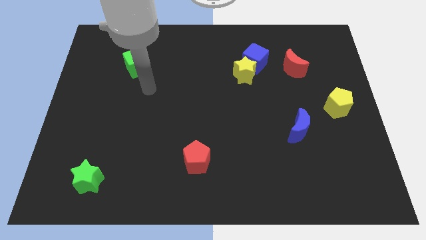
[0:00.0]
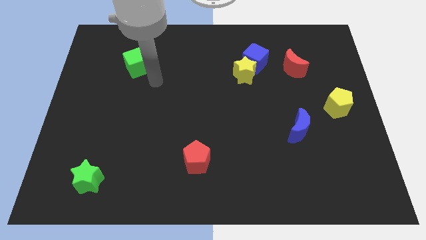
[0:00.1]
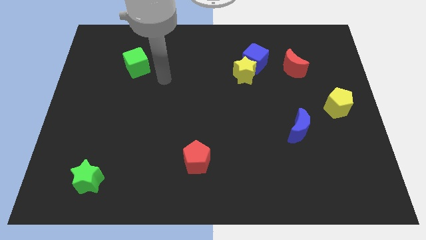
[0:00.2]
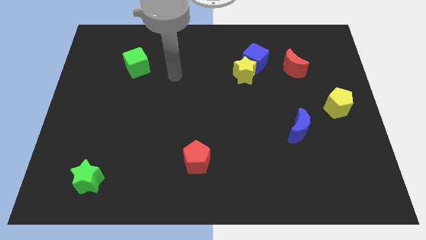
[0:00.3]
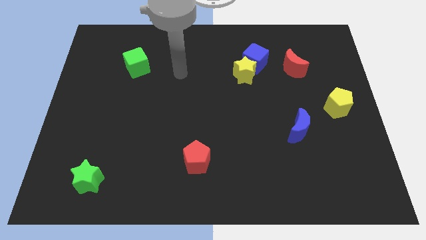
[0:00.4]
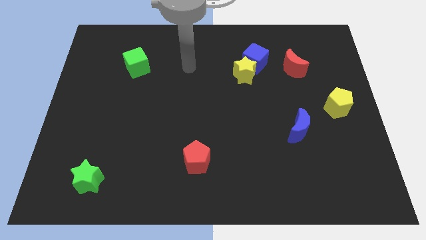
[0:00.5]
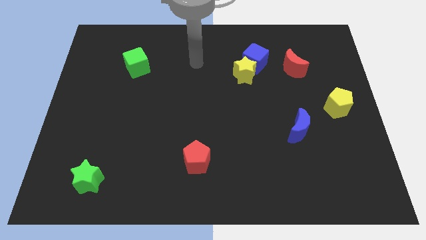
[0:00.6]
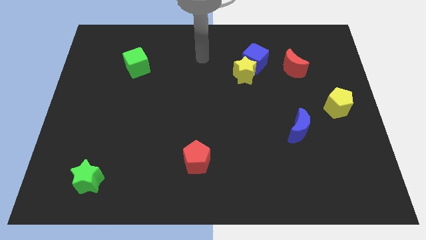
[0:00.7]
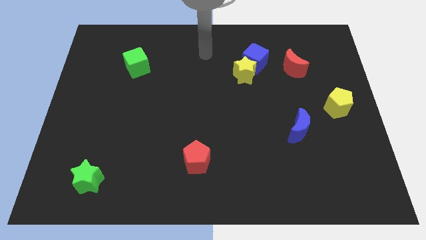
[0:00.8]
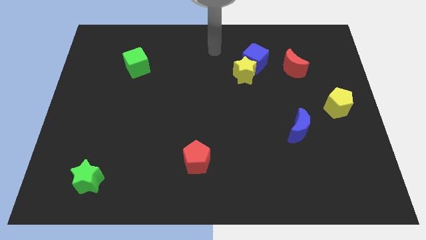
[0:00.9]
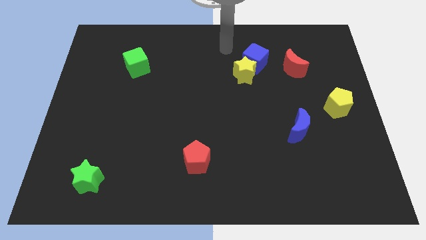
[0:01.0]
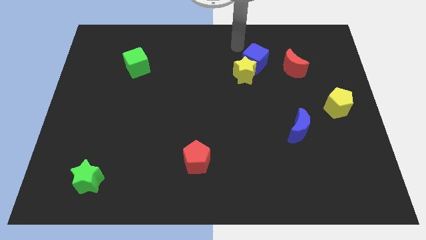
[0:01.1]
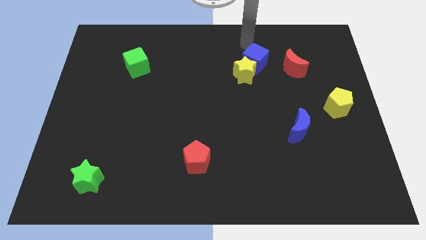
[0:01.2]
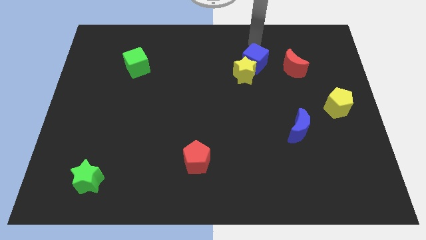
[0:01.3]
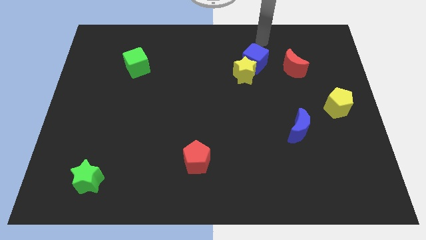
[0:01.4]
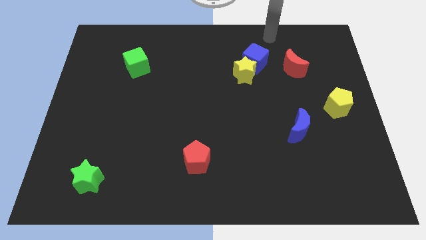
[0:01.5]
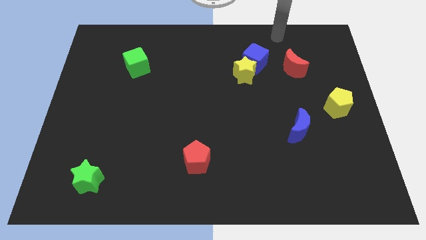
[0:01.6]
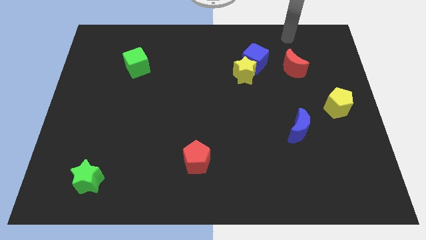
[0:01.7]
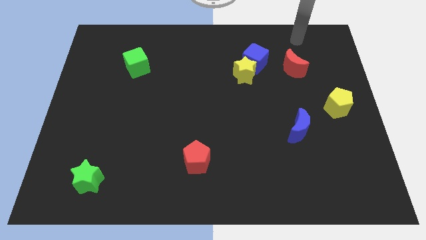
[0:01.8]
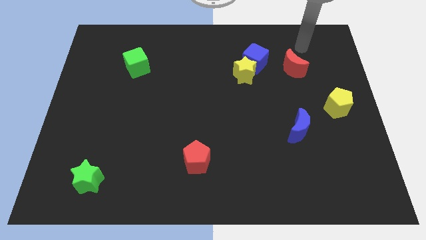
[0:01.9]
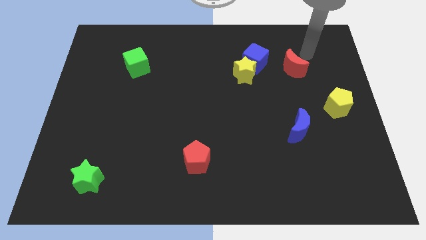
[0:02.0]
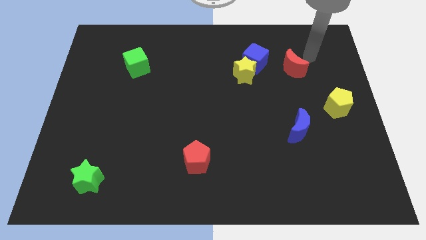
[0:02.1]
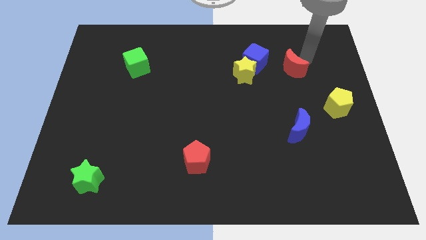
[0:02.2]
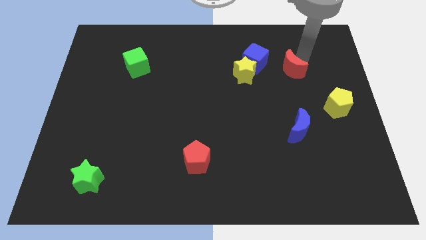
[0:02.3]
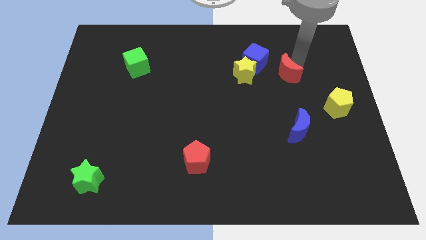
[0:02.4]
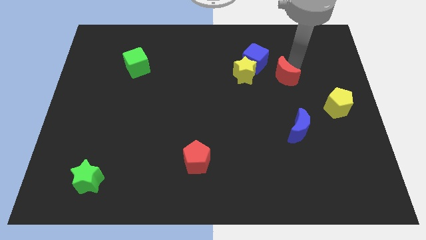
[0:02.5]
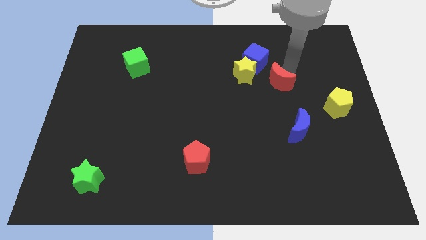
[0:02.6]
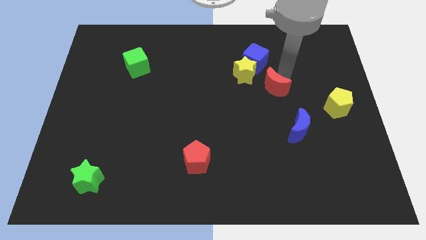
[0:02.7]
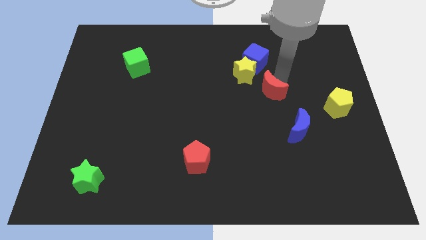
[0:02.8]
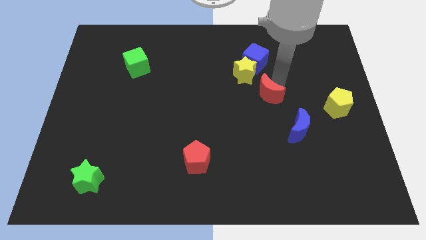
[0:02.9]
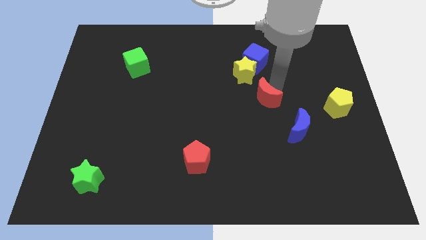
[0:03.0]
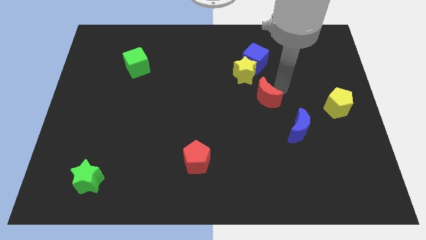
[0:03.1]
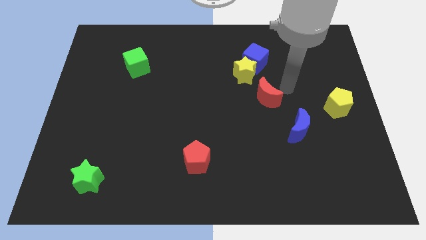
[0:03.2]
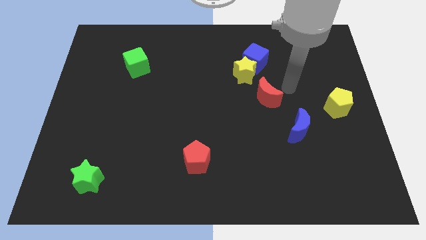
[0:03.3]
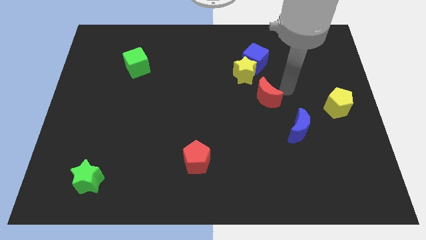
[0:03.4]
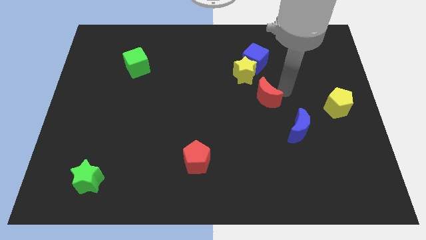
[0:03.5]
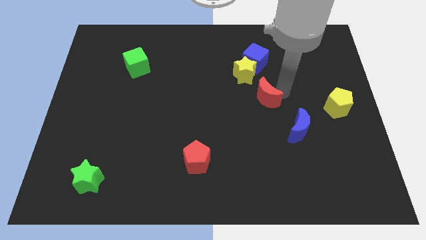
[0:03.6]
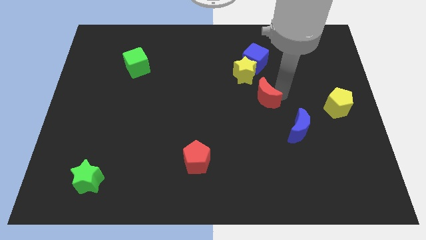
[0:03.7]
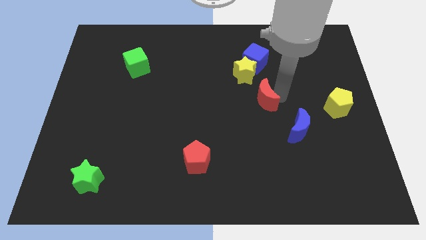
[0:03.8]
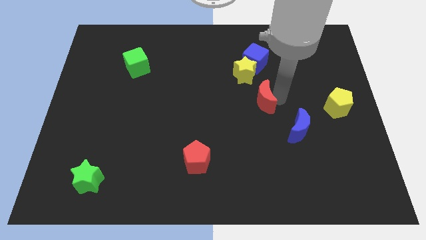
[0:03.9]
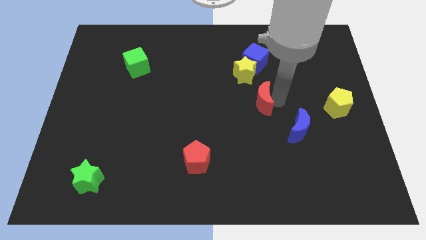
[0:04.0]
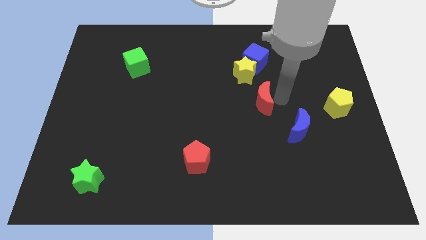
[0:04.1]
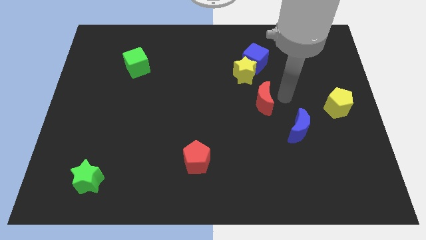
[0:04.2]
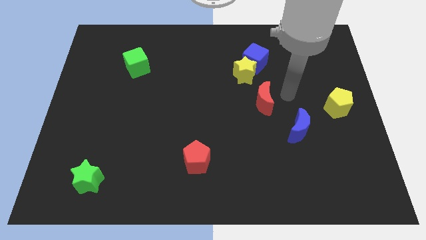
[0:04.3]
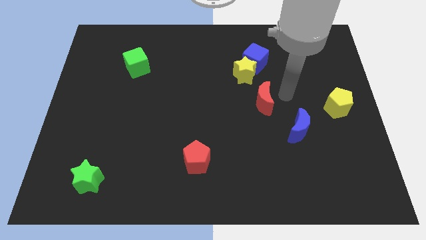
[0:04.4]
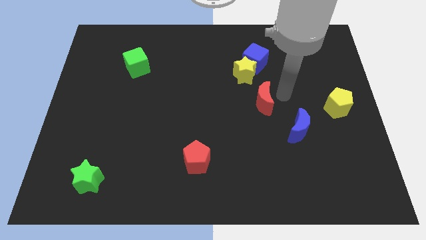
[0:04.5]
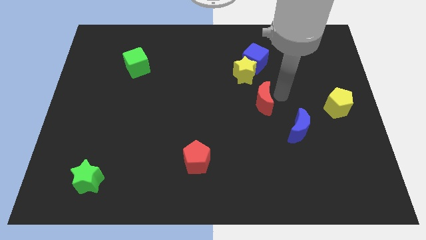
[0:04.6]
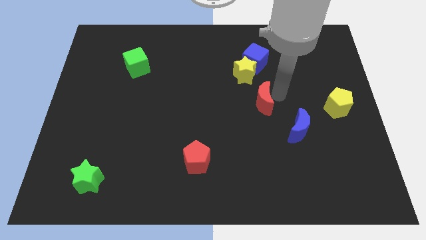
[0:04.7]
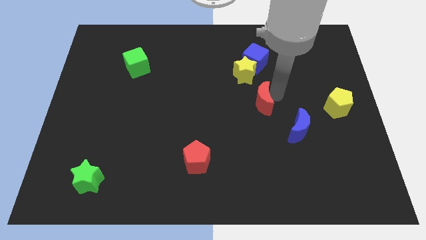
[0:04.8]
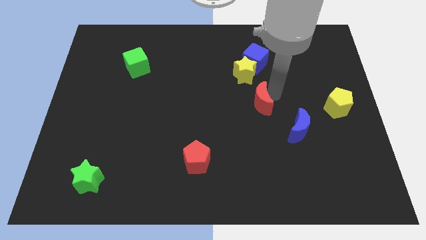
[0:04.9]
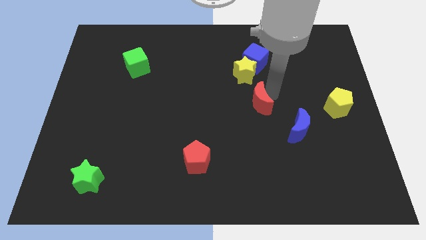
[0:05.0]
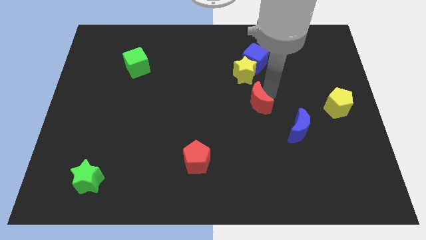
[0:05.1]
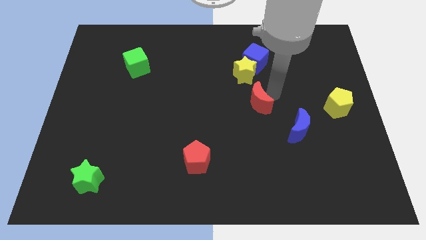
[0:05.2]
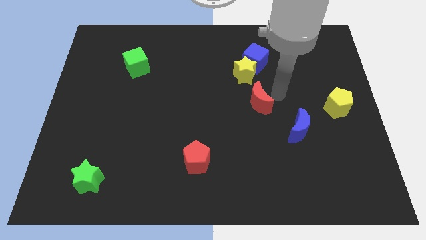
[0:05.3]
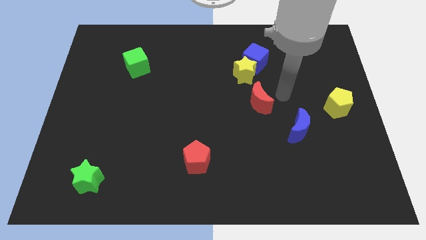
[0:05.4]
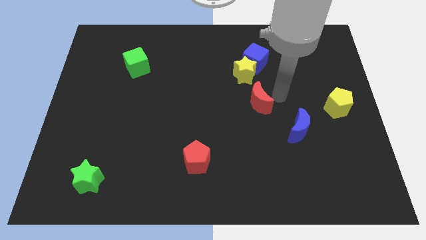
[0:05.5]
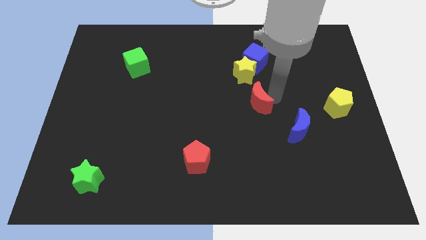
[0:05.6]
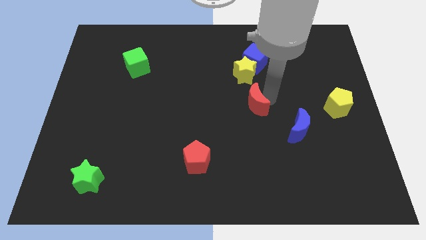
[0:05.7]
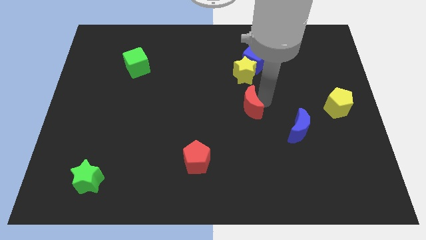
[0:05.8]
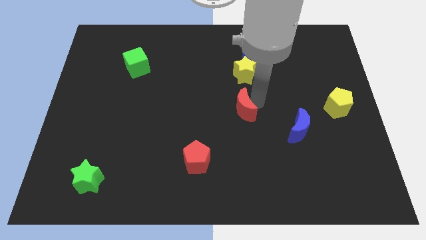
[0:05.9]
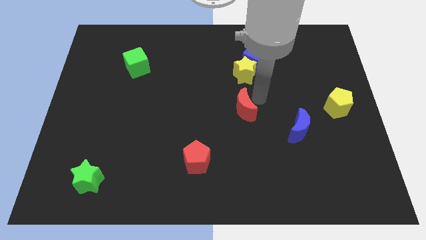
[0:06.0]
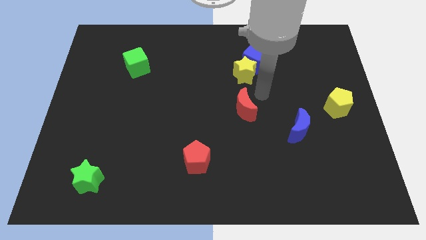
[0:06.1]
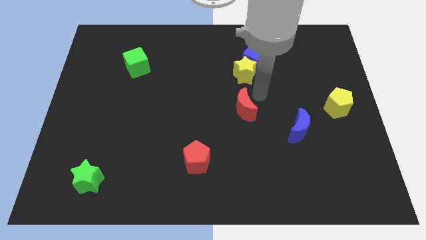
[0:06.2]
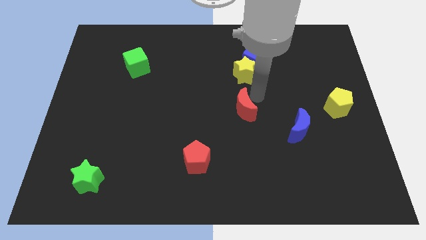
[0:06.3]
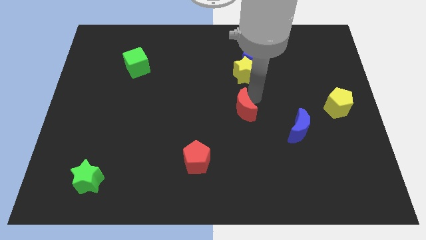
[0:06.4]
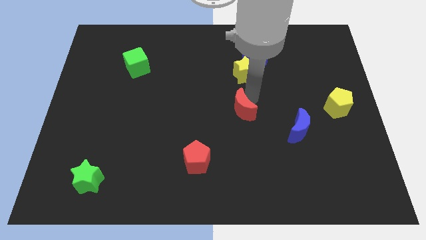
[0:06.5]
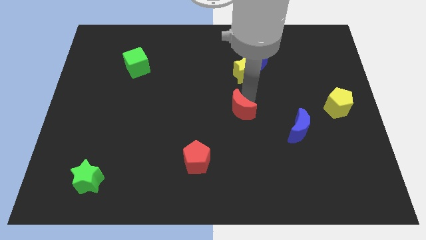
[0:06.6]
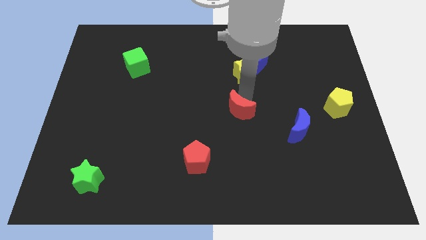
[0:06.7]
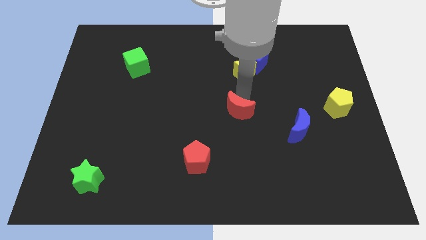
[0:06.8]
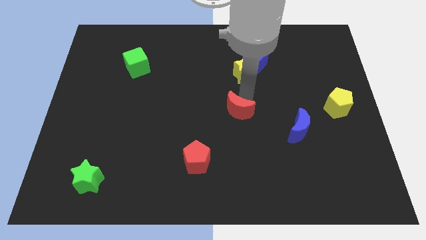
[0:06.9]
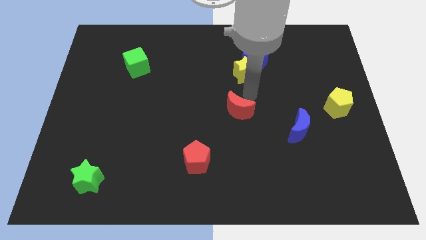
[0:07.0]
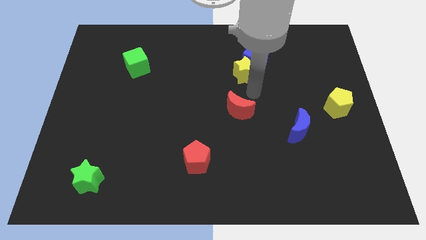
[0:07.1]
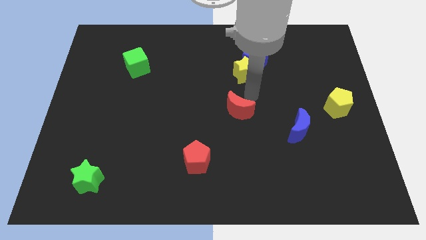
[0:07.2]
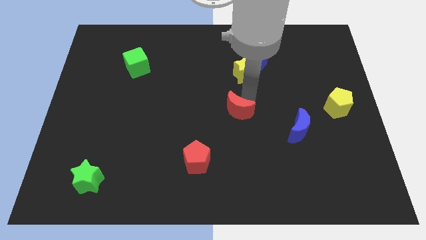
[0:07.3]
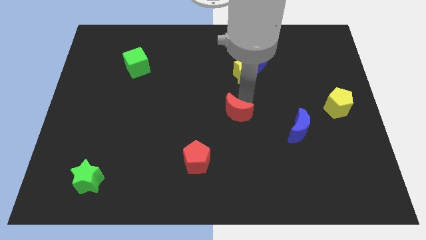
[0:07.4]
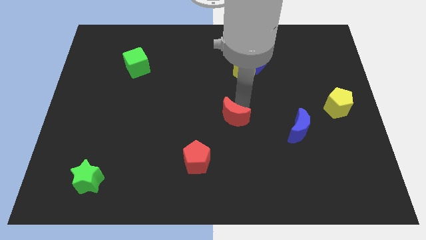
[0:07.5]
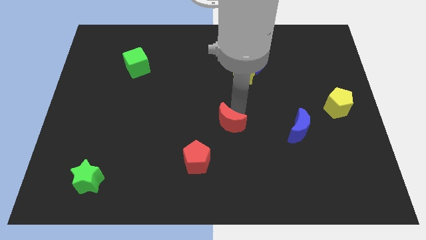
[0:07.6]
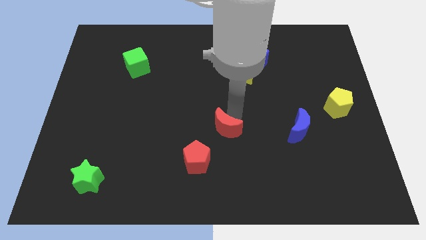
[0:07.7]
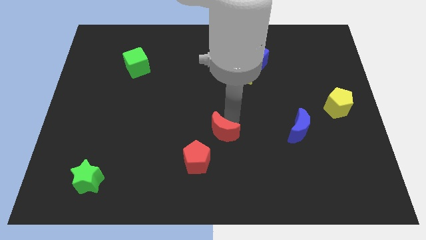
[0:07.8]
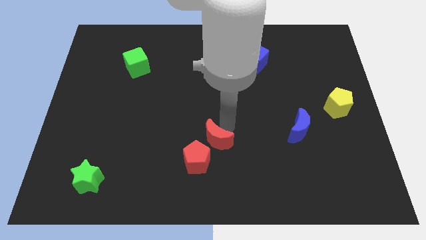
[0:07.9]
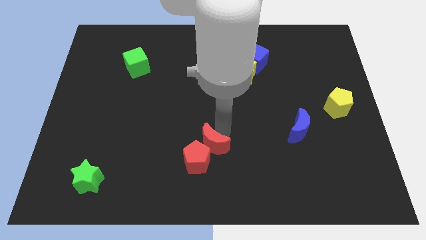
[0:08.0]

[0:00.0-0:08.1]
push the red moon next to the red pentagon
